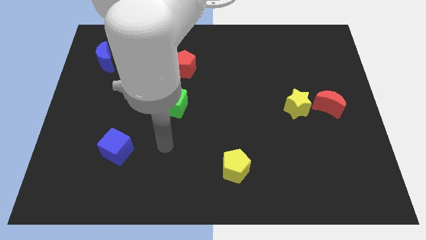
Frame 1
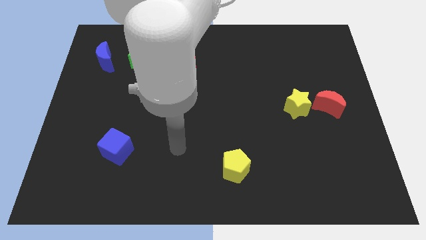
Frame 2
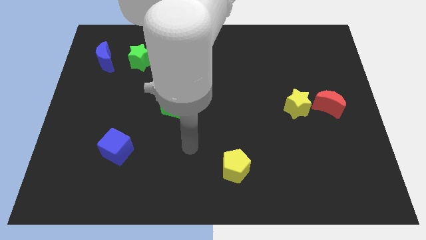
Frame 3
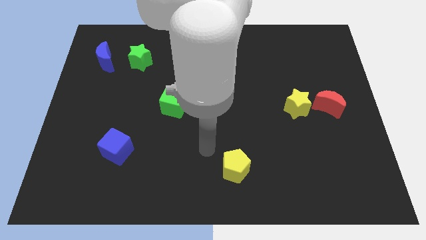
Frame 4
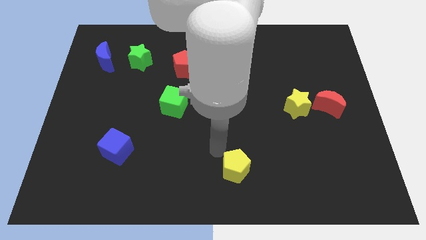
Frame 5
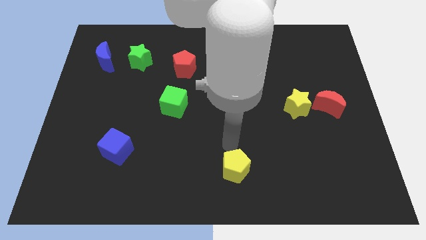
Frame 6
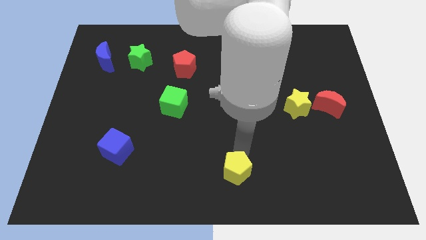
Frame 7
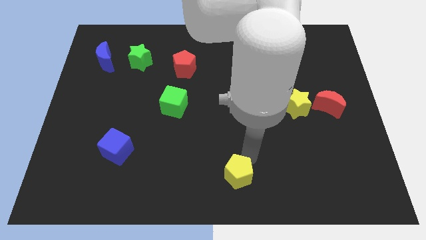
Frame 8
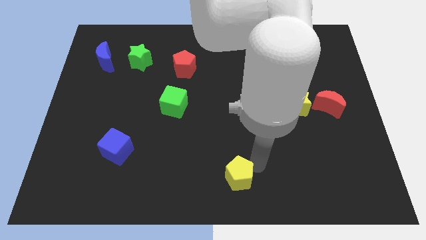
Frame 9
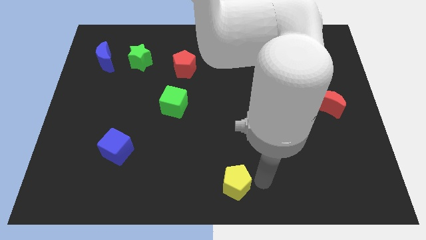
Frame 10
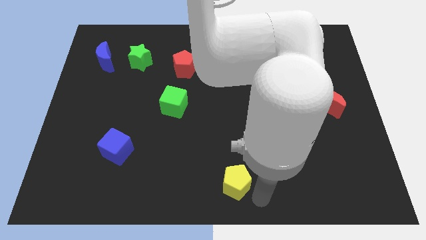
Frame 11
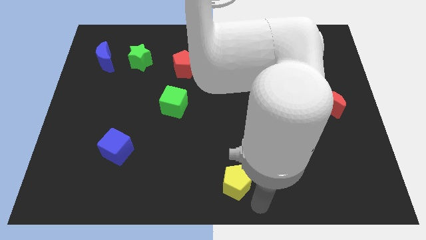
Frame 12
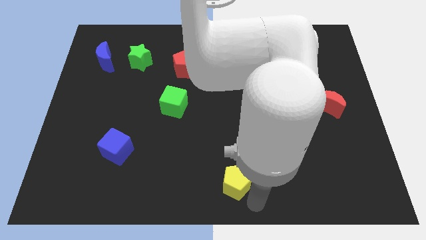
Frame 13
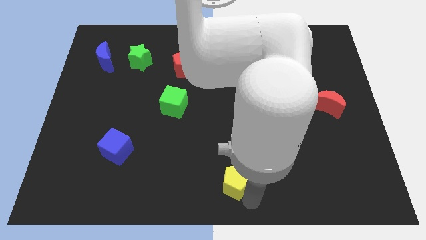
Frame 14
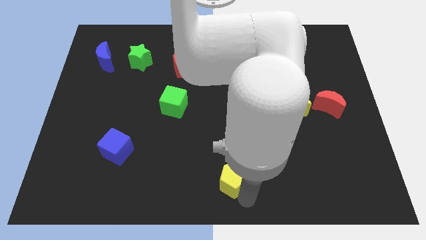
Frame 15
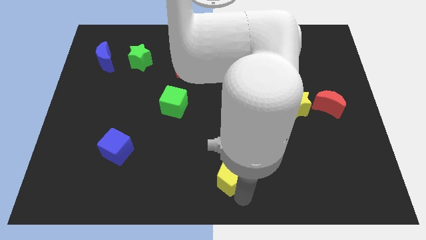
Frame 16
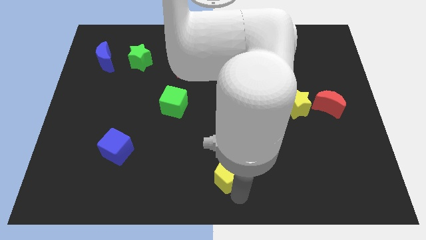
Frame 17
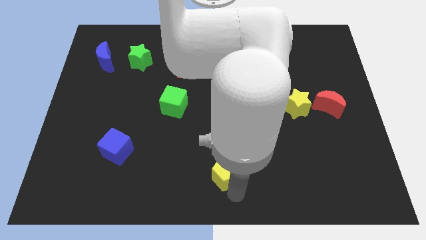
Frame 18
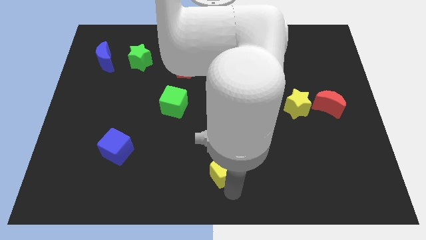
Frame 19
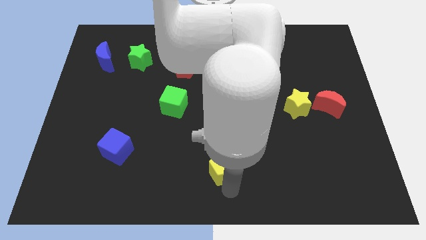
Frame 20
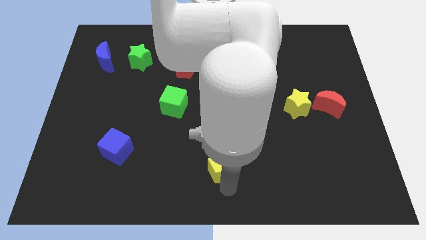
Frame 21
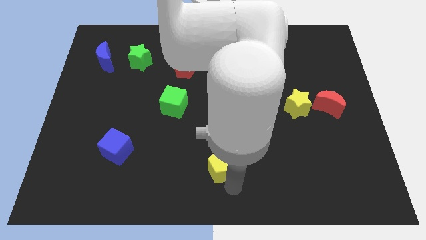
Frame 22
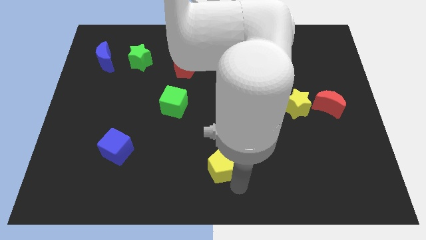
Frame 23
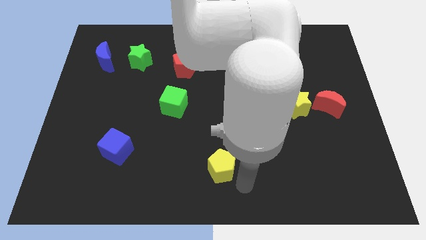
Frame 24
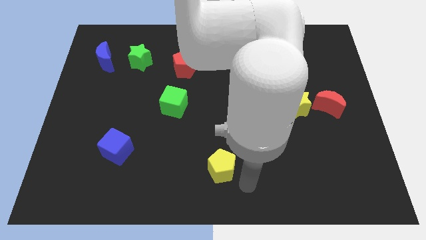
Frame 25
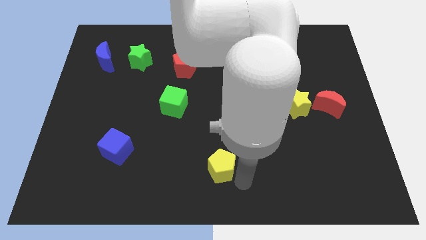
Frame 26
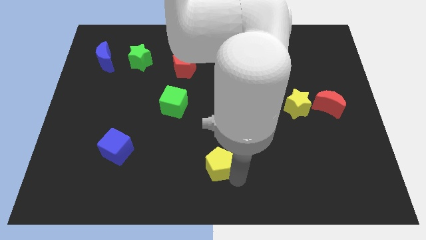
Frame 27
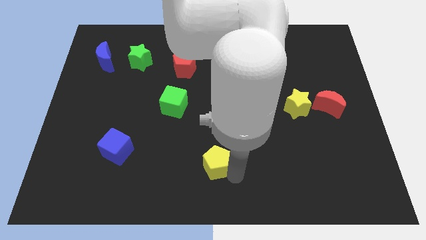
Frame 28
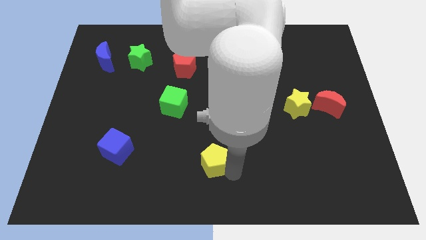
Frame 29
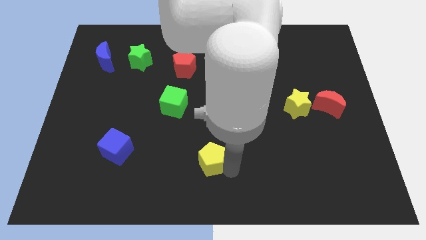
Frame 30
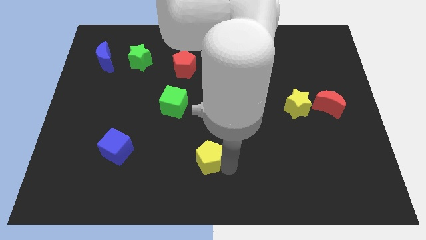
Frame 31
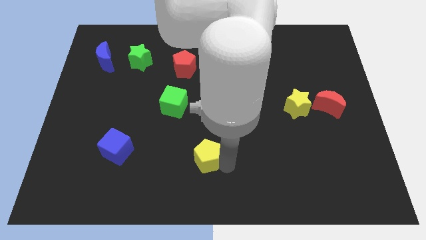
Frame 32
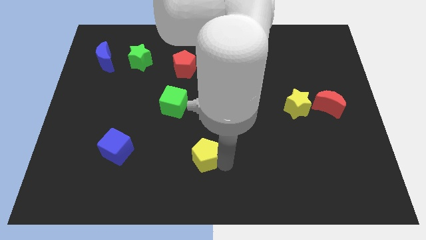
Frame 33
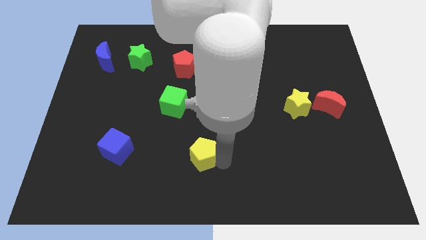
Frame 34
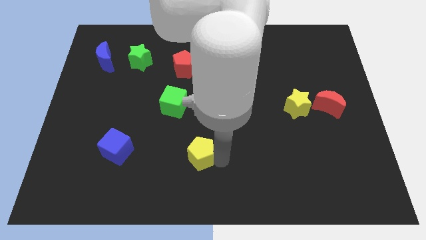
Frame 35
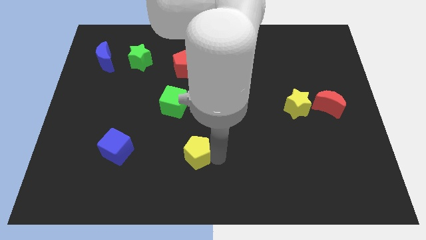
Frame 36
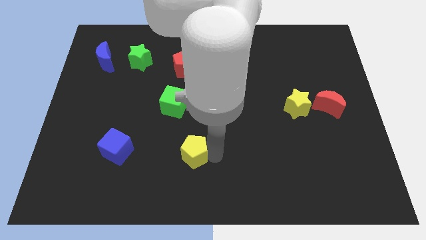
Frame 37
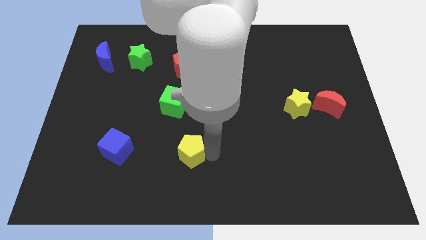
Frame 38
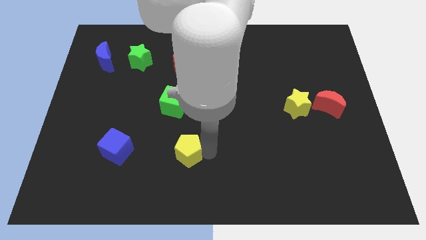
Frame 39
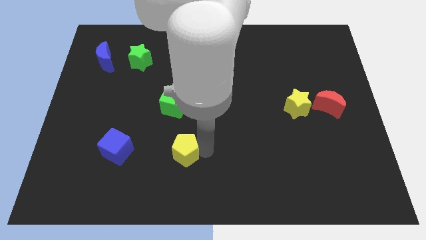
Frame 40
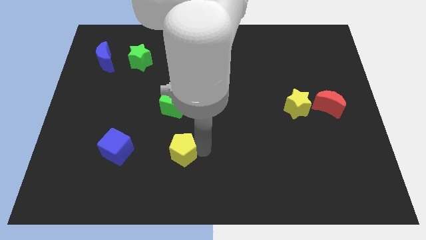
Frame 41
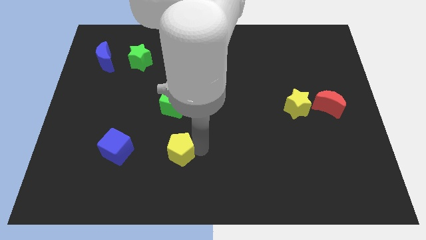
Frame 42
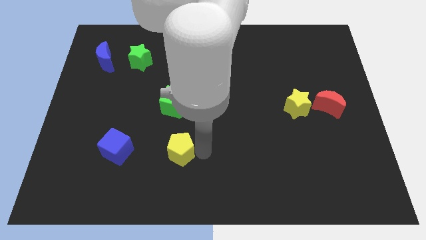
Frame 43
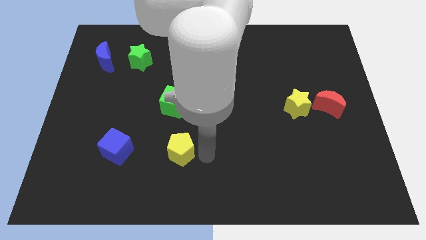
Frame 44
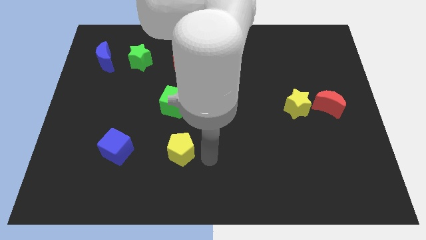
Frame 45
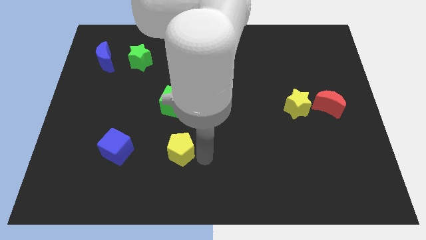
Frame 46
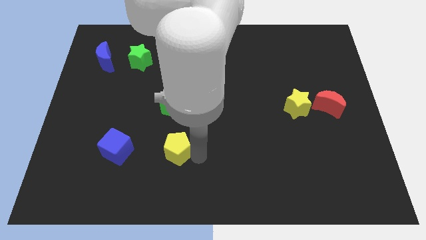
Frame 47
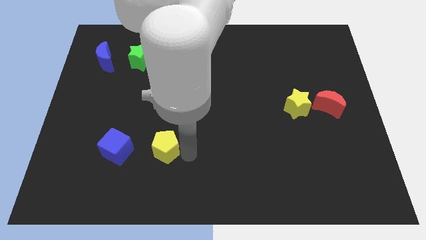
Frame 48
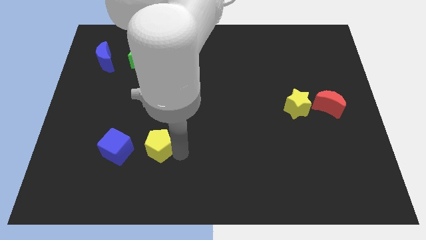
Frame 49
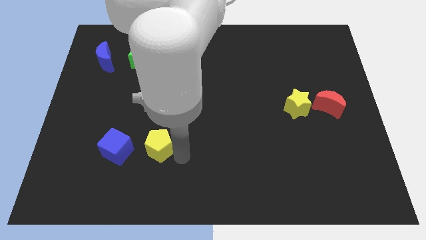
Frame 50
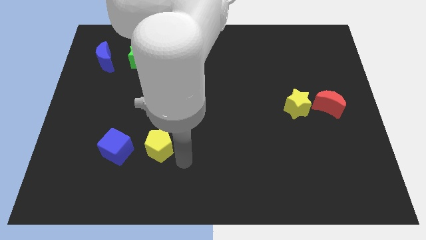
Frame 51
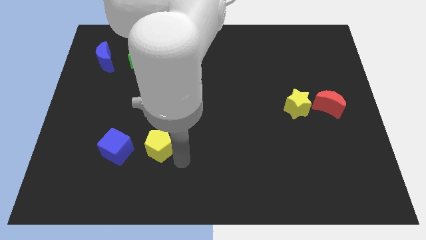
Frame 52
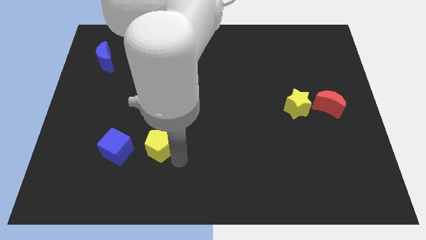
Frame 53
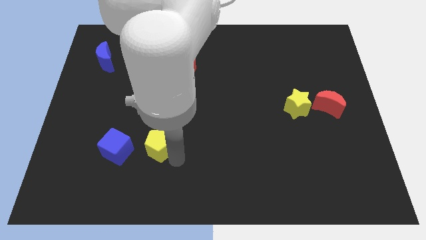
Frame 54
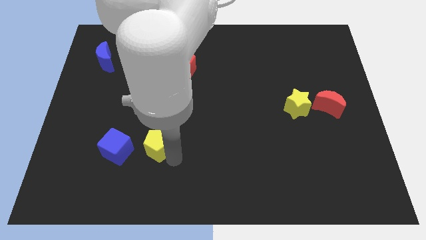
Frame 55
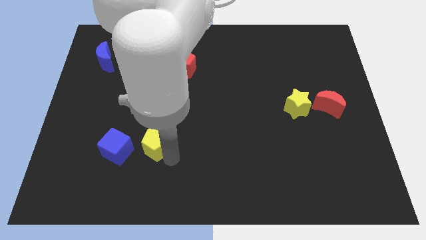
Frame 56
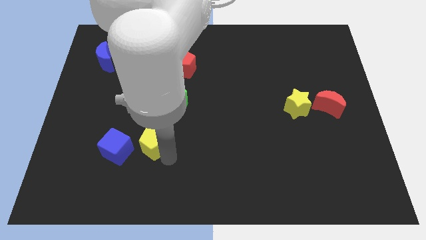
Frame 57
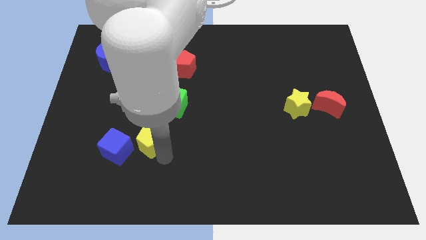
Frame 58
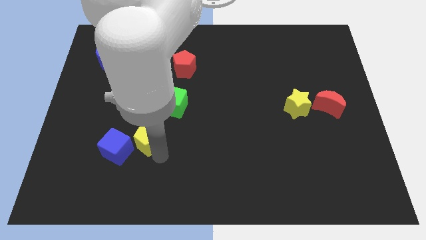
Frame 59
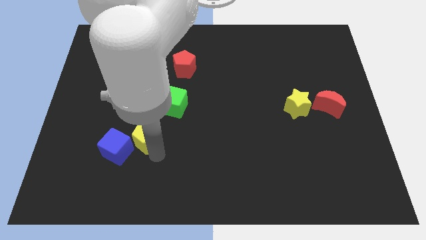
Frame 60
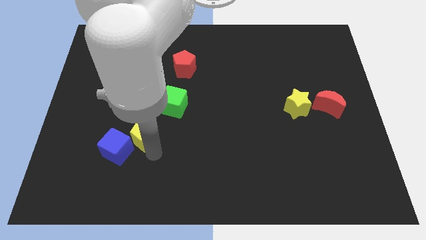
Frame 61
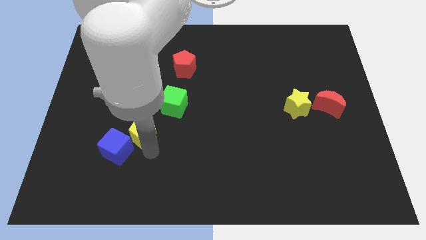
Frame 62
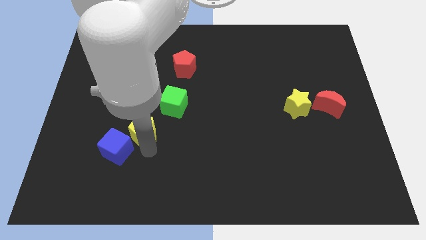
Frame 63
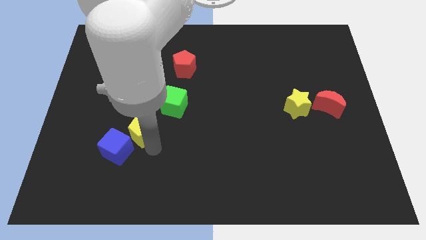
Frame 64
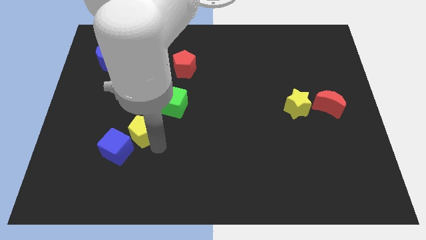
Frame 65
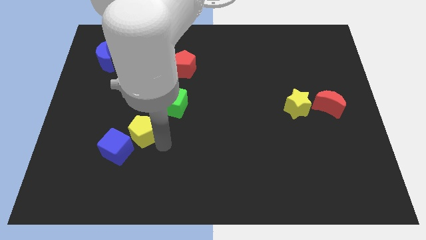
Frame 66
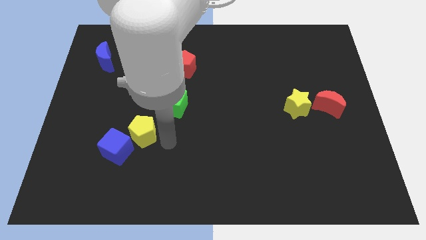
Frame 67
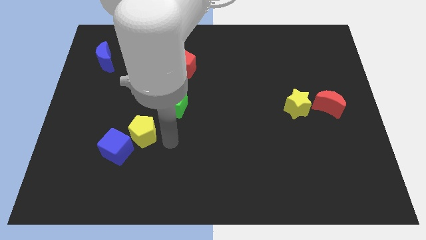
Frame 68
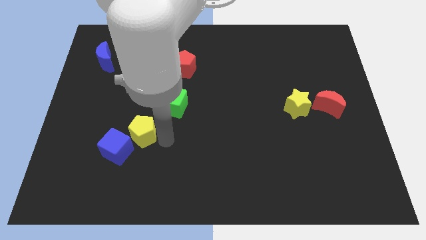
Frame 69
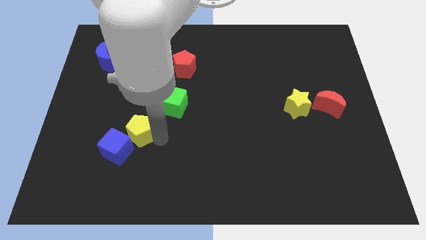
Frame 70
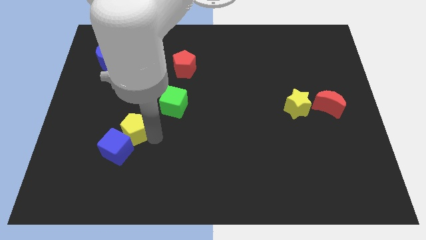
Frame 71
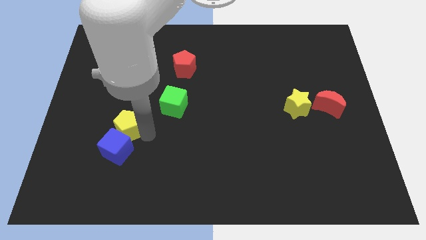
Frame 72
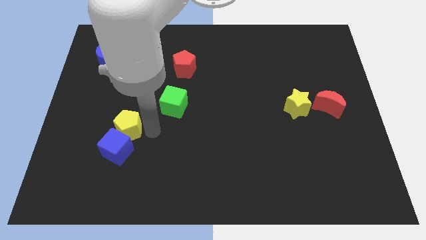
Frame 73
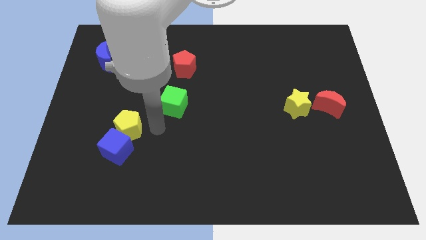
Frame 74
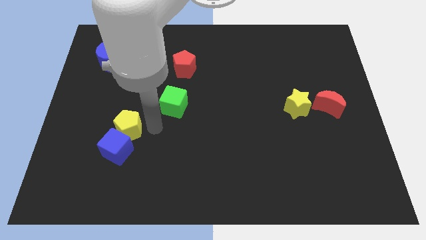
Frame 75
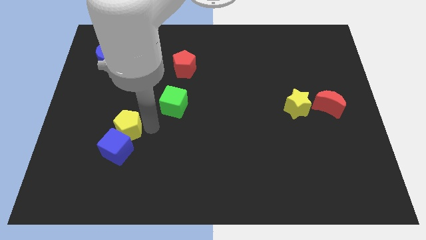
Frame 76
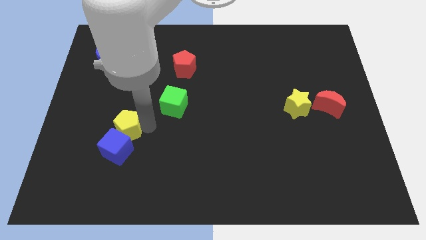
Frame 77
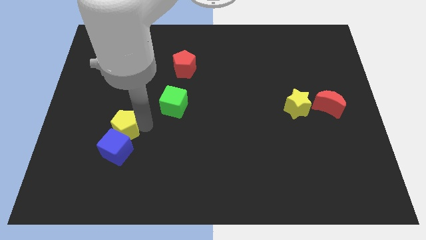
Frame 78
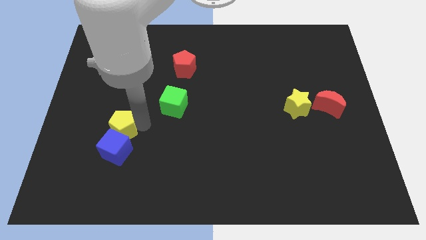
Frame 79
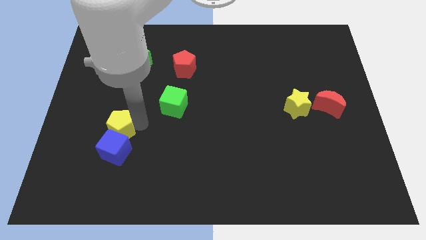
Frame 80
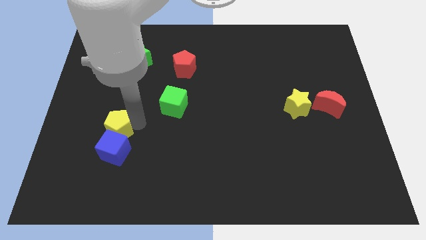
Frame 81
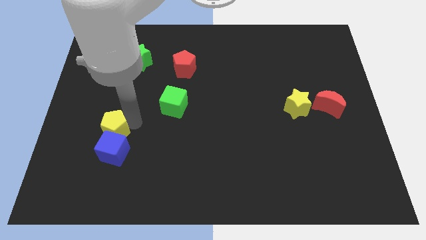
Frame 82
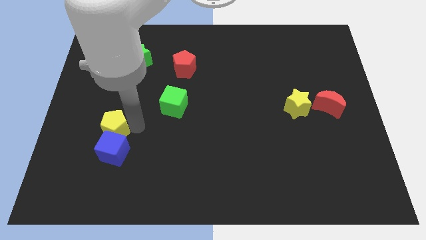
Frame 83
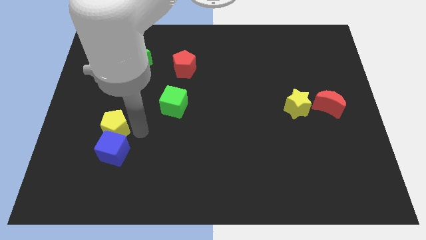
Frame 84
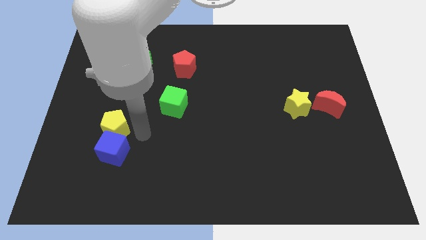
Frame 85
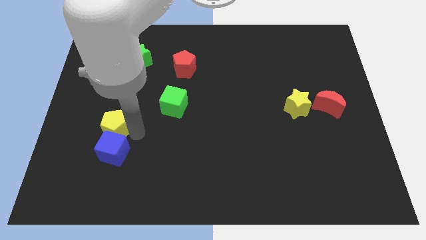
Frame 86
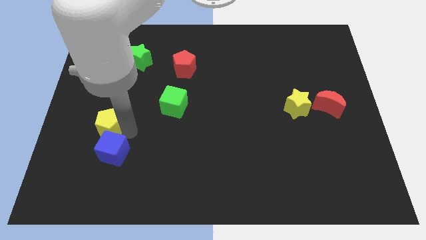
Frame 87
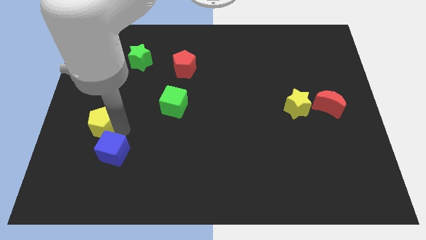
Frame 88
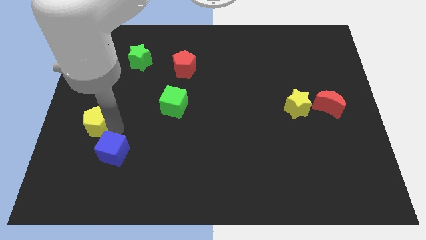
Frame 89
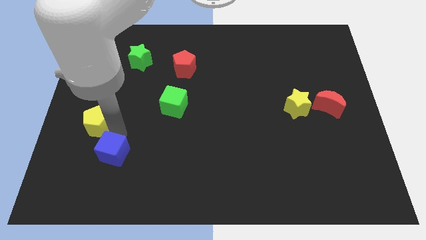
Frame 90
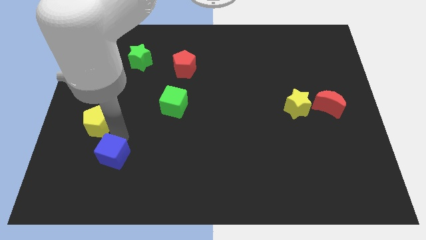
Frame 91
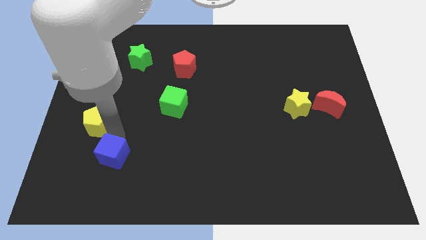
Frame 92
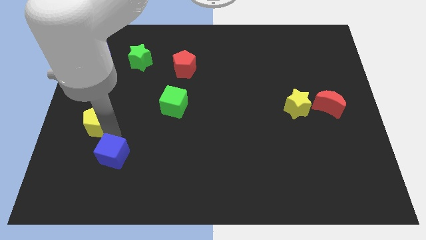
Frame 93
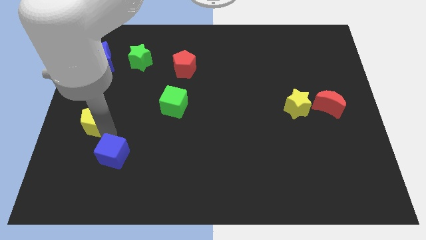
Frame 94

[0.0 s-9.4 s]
push the yellow pentagon to the left side of the board
